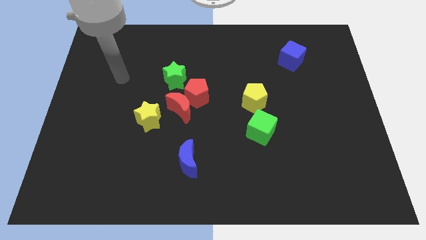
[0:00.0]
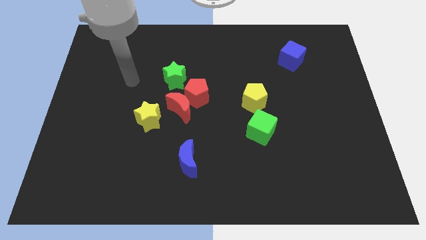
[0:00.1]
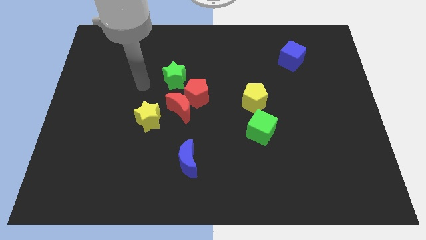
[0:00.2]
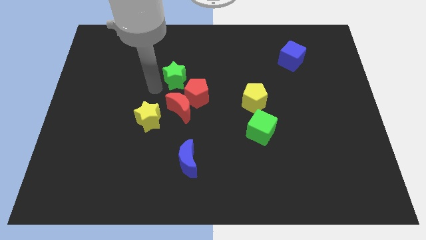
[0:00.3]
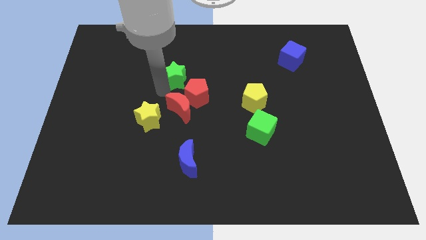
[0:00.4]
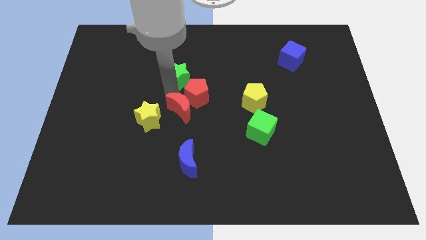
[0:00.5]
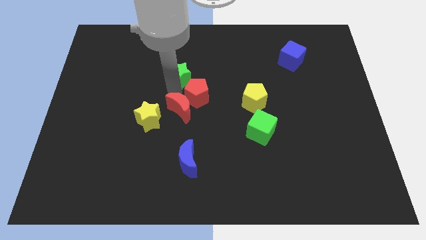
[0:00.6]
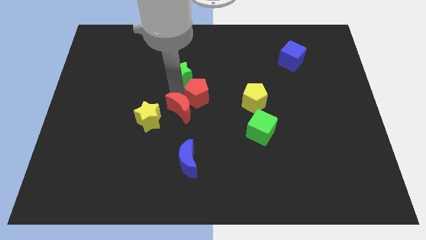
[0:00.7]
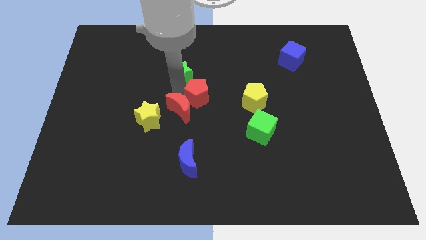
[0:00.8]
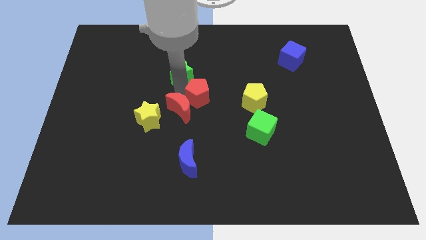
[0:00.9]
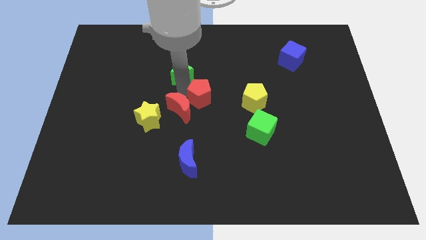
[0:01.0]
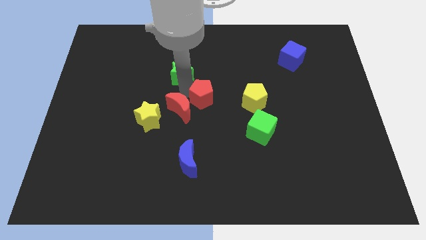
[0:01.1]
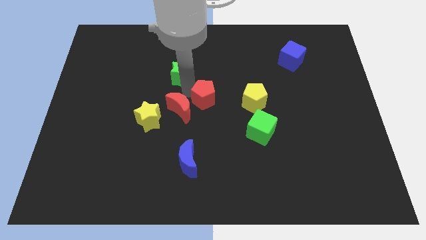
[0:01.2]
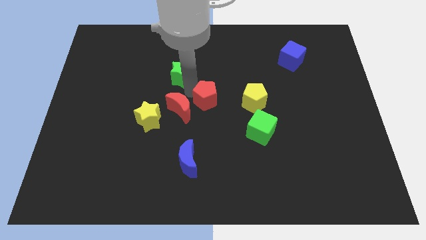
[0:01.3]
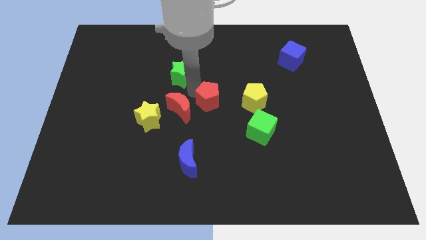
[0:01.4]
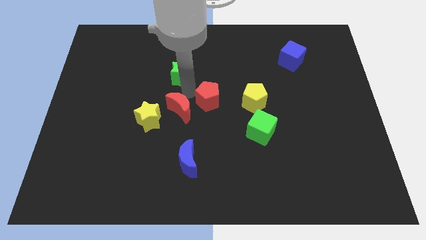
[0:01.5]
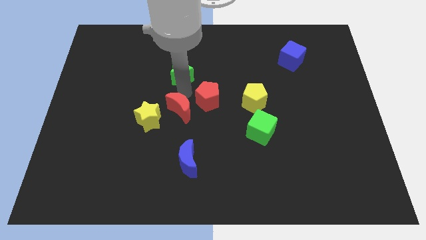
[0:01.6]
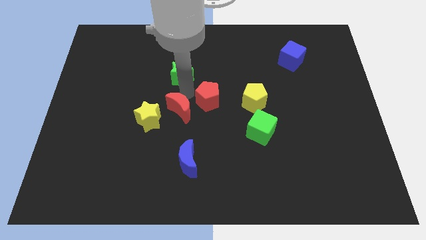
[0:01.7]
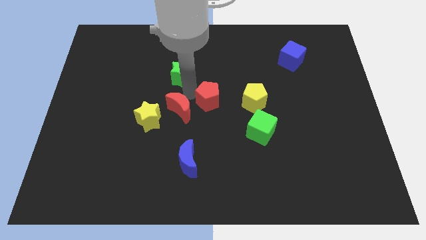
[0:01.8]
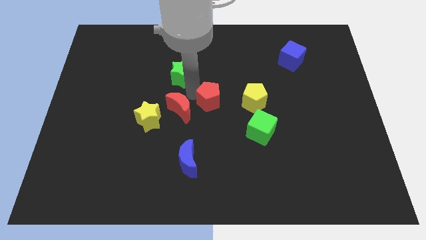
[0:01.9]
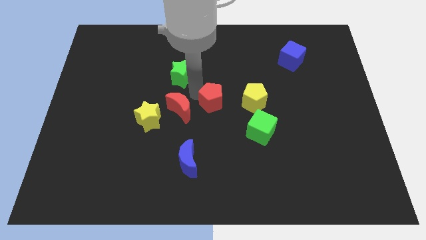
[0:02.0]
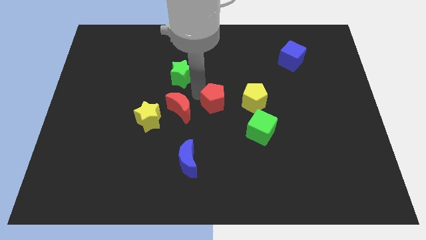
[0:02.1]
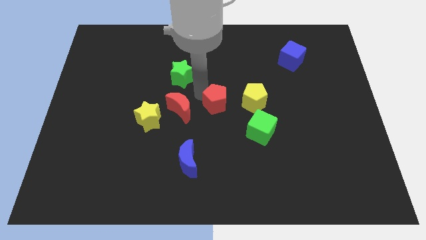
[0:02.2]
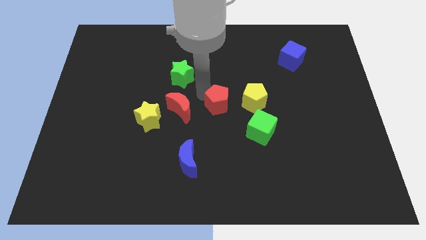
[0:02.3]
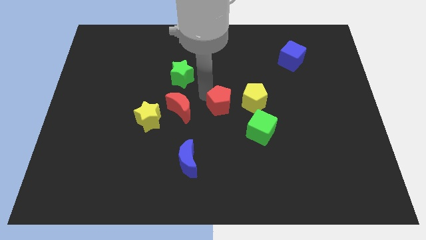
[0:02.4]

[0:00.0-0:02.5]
separate the red pentagon from the red moon and green star

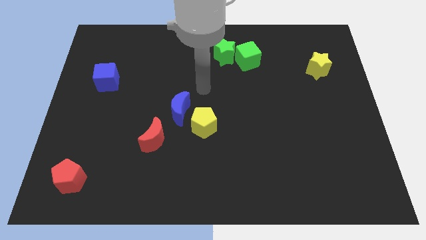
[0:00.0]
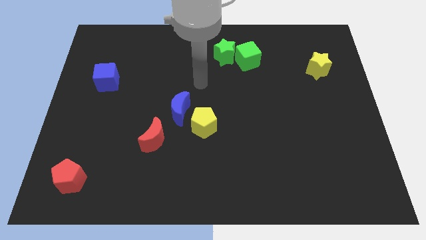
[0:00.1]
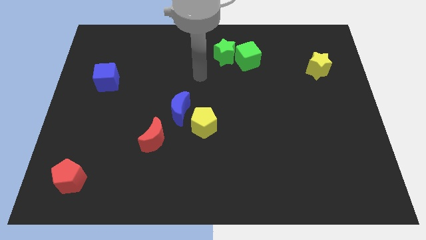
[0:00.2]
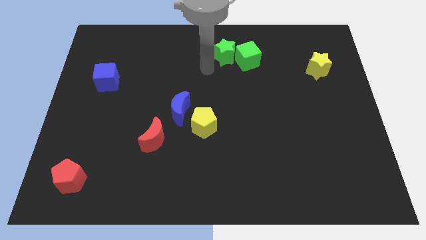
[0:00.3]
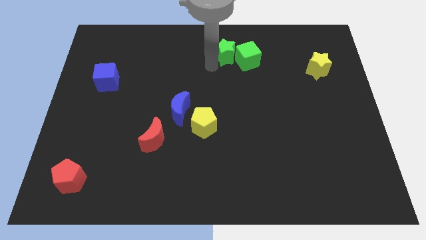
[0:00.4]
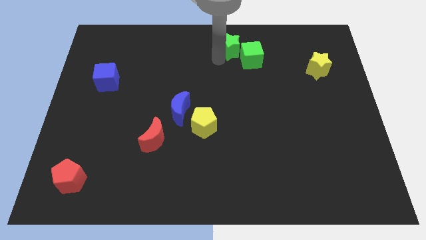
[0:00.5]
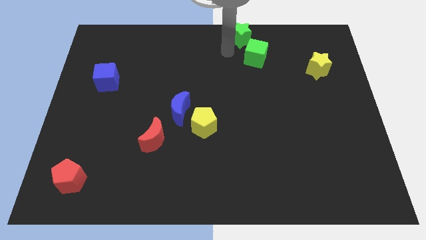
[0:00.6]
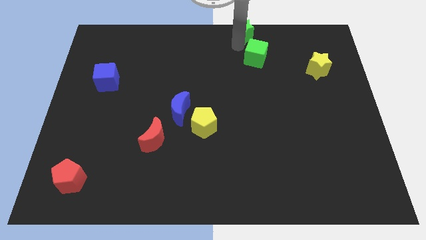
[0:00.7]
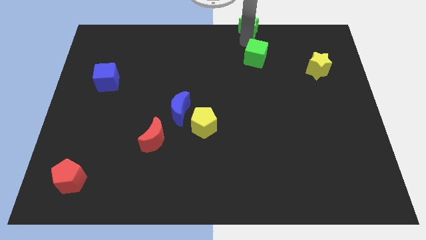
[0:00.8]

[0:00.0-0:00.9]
separate the green cube from the green star

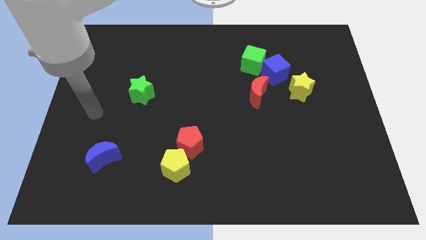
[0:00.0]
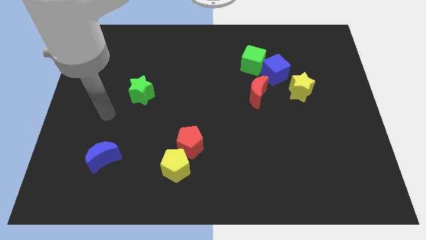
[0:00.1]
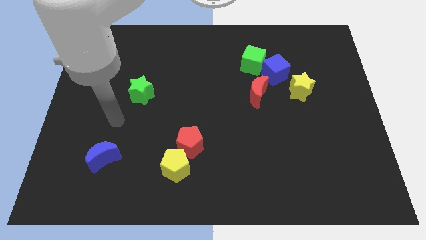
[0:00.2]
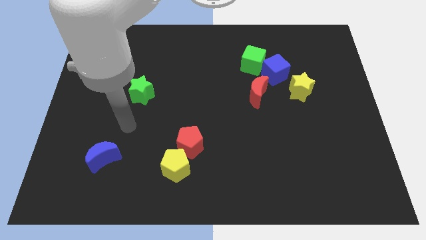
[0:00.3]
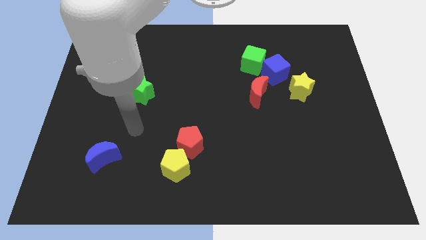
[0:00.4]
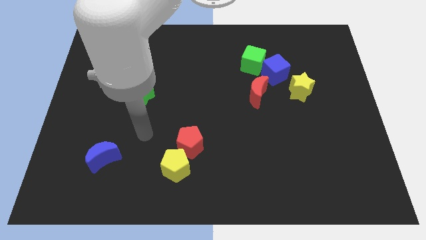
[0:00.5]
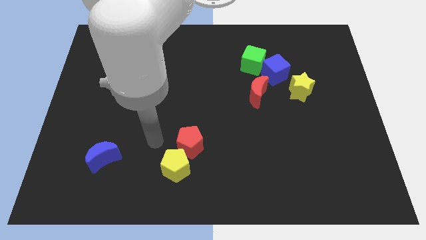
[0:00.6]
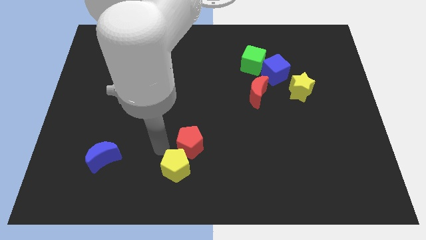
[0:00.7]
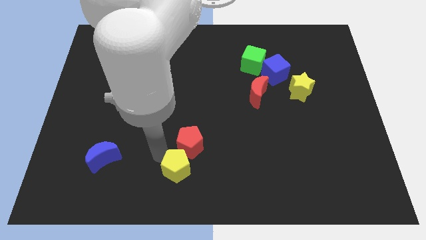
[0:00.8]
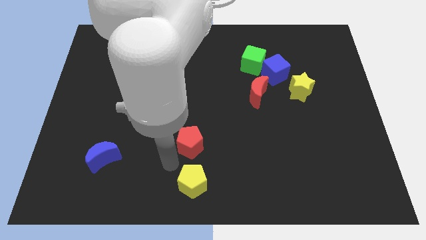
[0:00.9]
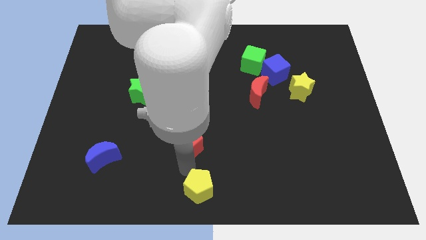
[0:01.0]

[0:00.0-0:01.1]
separate the red pentagon from the yellow pentagon

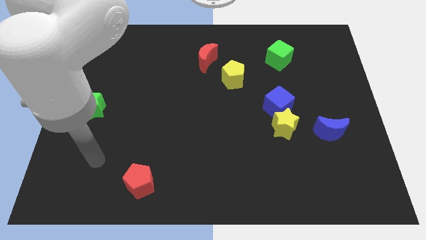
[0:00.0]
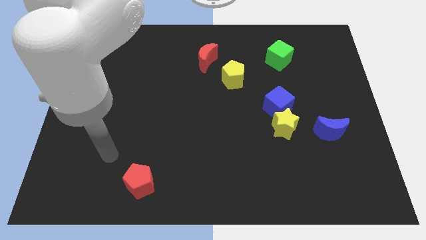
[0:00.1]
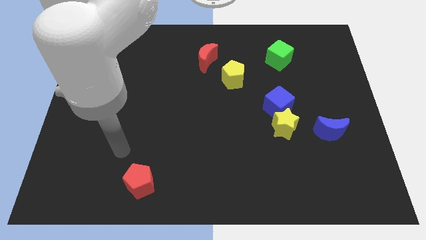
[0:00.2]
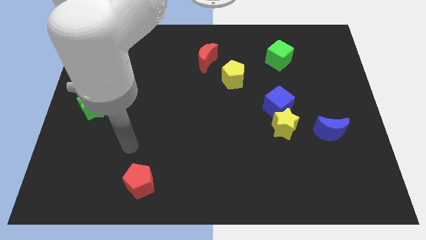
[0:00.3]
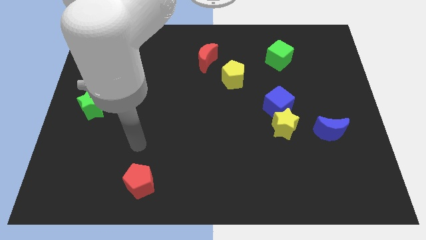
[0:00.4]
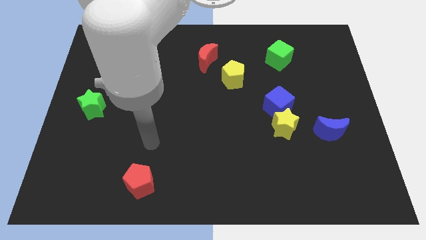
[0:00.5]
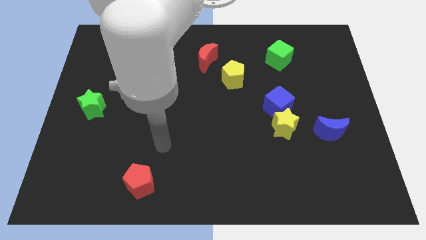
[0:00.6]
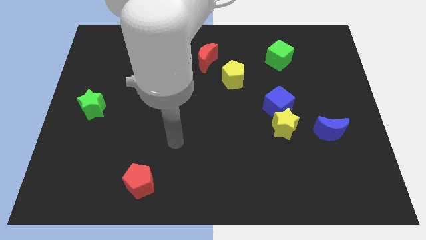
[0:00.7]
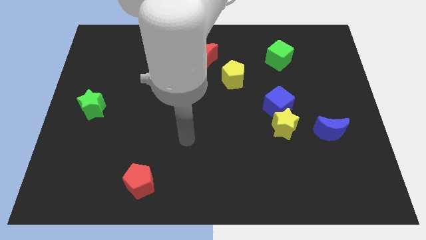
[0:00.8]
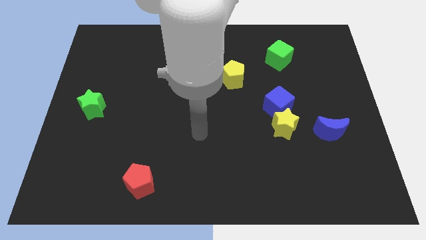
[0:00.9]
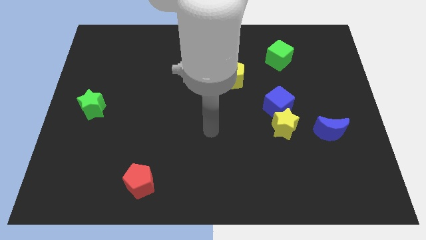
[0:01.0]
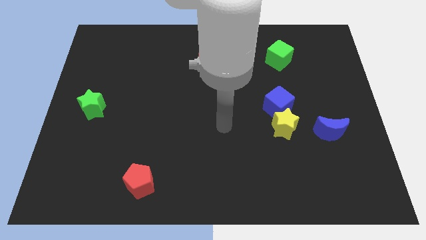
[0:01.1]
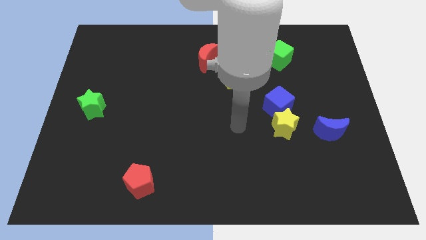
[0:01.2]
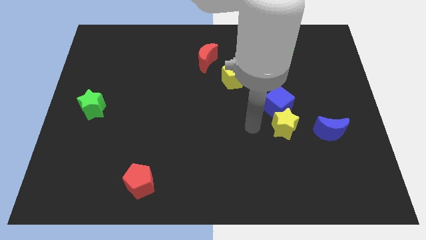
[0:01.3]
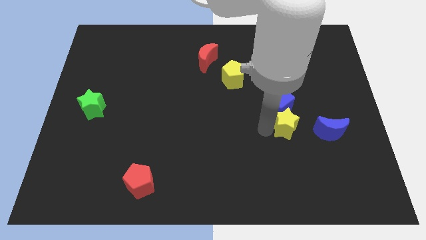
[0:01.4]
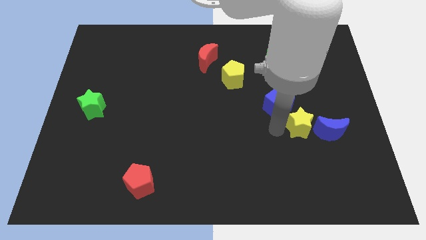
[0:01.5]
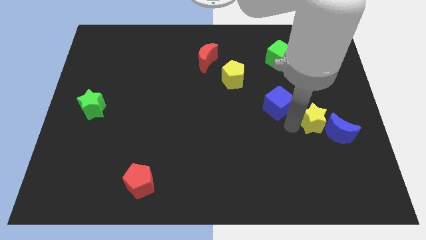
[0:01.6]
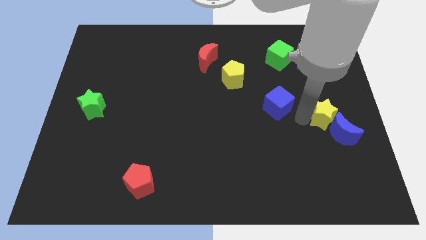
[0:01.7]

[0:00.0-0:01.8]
move the blue cube away from the yellow star

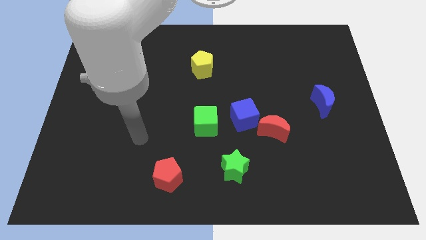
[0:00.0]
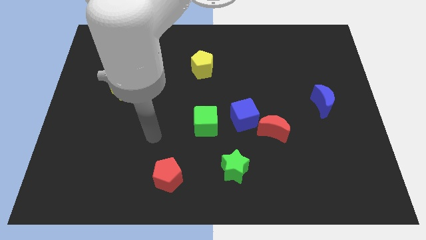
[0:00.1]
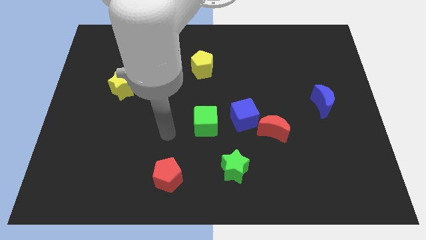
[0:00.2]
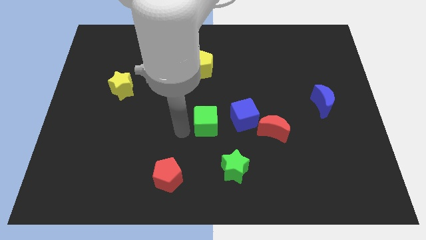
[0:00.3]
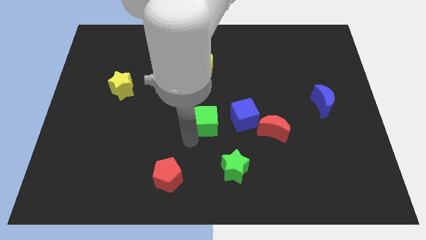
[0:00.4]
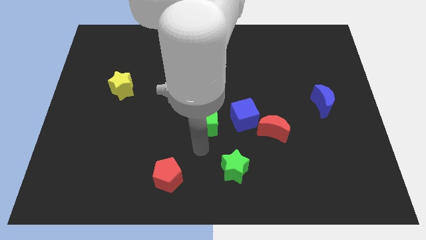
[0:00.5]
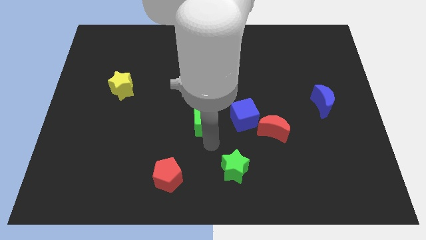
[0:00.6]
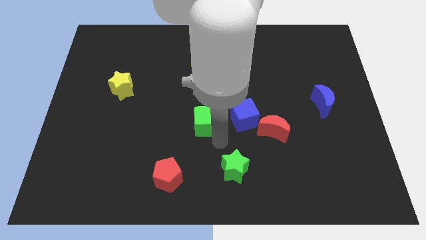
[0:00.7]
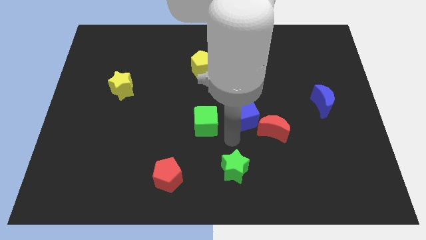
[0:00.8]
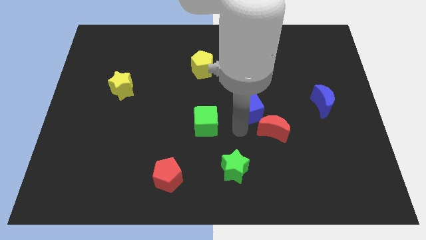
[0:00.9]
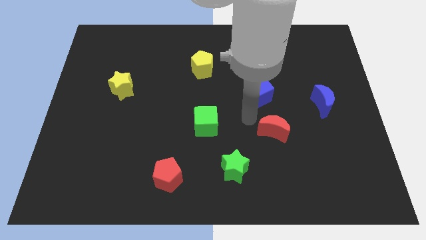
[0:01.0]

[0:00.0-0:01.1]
separate the red moon from the blue cube

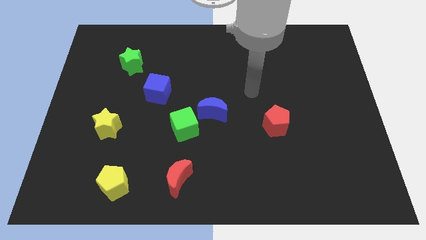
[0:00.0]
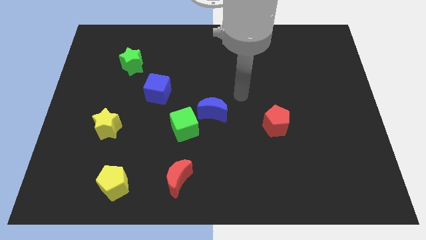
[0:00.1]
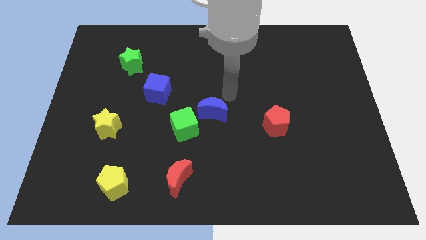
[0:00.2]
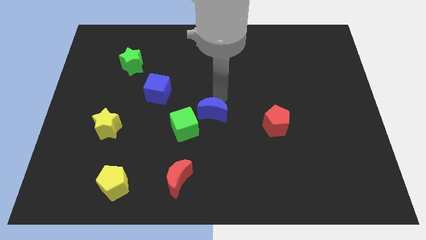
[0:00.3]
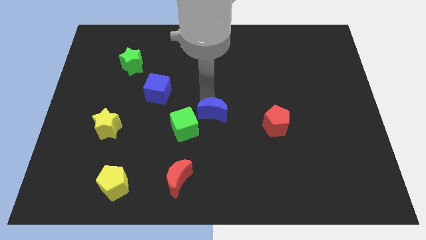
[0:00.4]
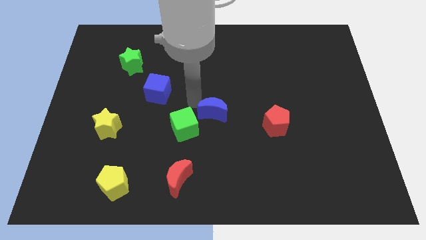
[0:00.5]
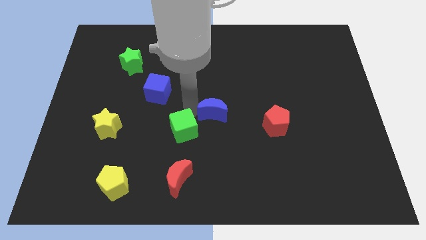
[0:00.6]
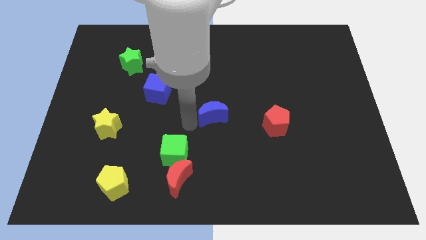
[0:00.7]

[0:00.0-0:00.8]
move the blue moon away from the green cube

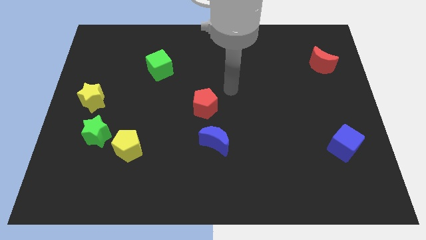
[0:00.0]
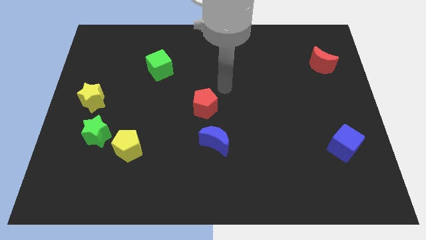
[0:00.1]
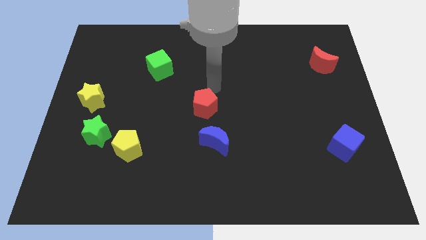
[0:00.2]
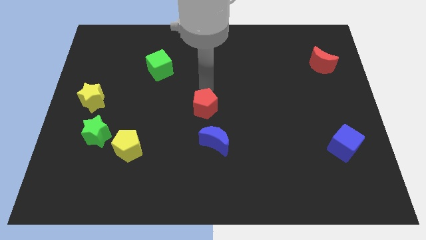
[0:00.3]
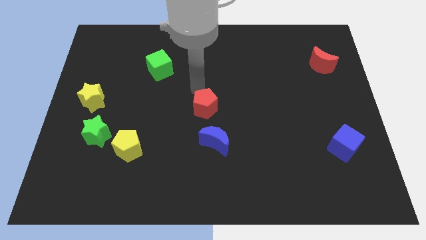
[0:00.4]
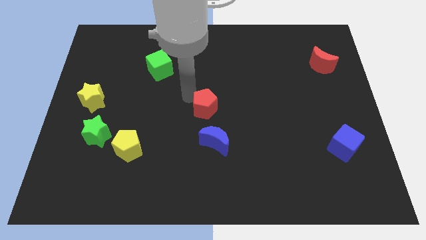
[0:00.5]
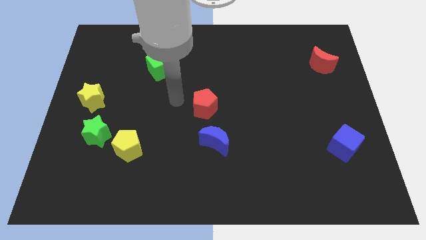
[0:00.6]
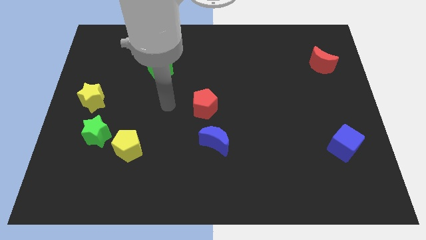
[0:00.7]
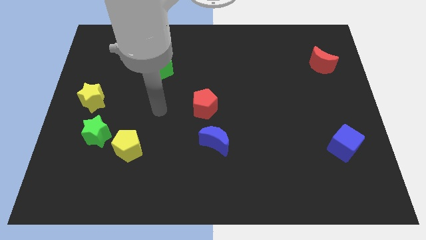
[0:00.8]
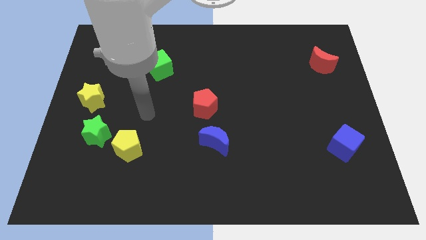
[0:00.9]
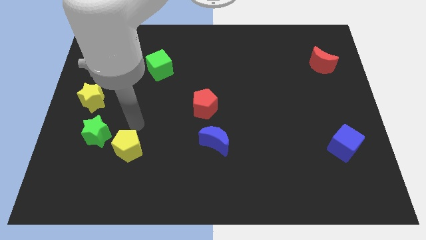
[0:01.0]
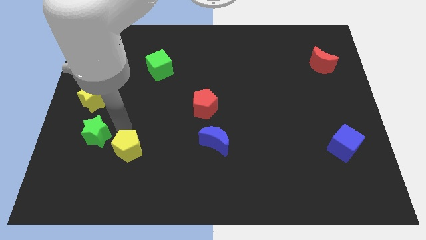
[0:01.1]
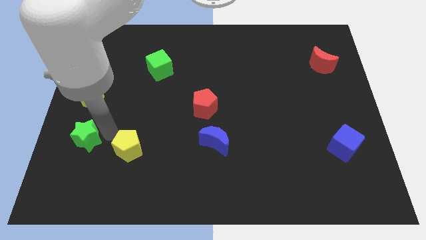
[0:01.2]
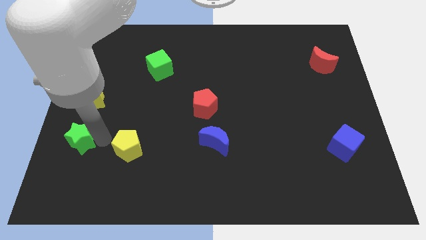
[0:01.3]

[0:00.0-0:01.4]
move the yellow pentagon away from the green star
